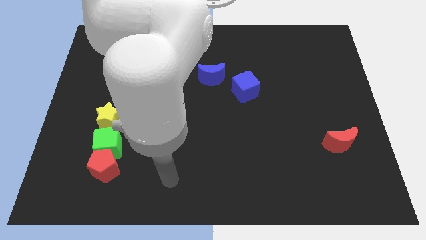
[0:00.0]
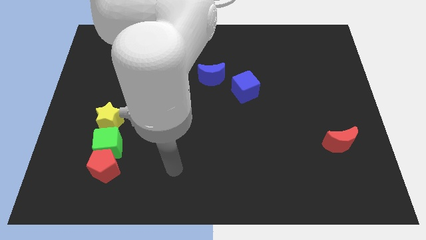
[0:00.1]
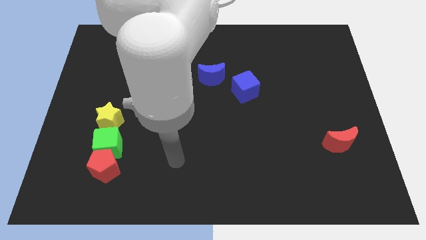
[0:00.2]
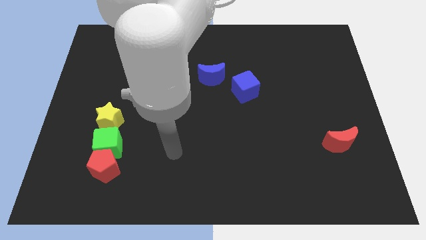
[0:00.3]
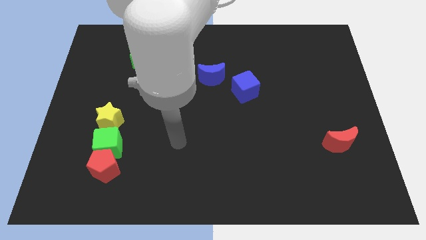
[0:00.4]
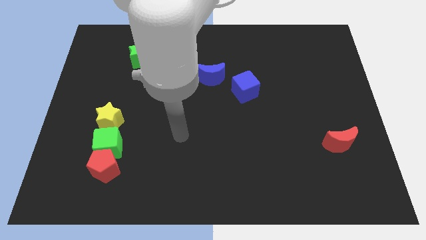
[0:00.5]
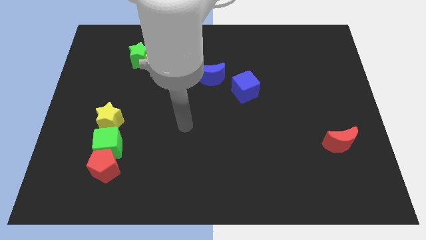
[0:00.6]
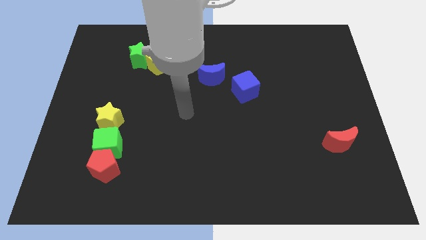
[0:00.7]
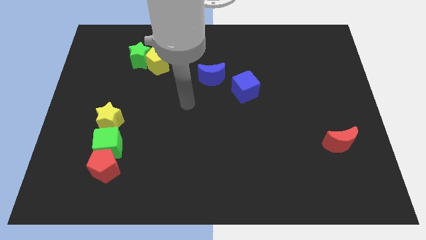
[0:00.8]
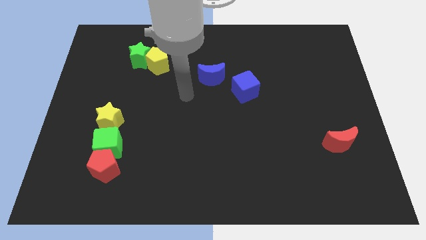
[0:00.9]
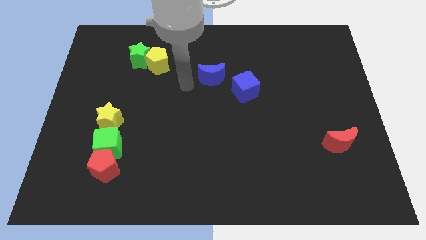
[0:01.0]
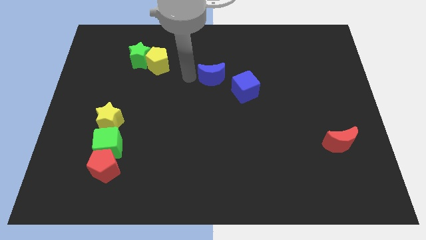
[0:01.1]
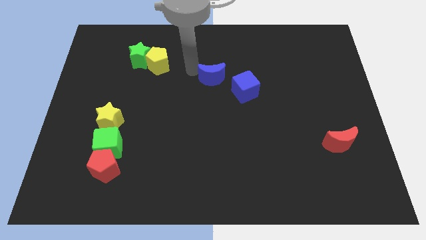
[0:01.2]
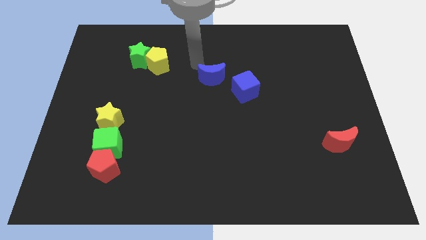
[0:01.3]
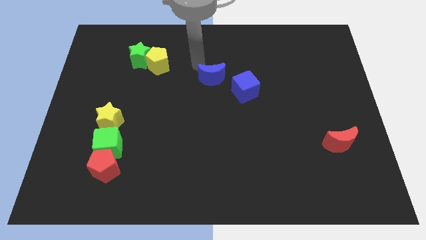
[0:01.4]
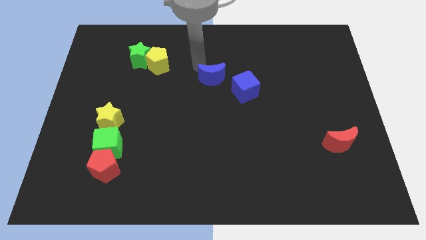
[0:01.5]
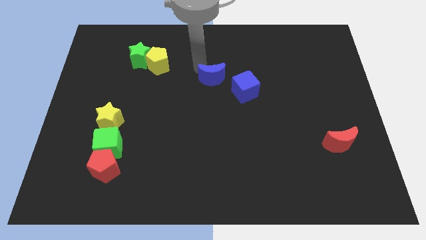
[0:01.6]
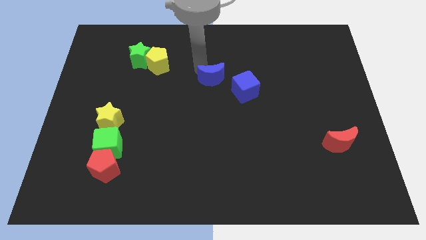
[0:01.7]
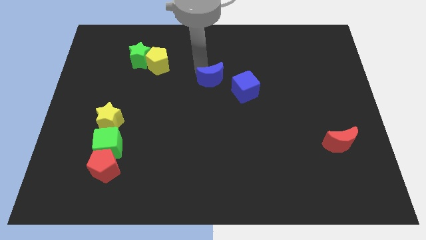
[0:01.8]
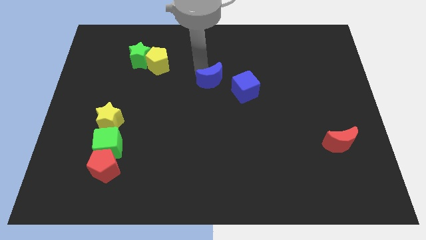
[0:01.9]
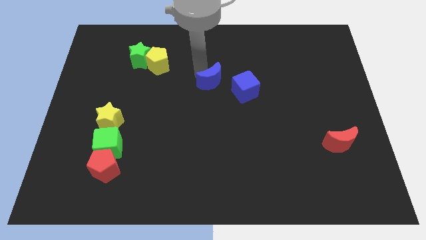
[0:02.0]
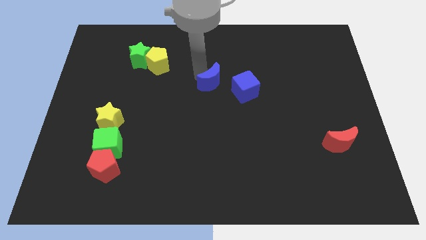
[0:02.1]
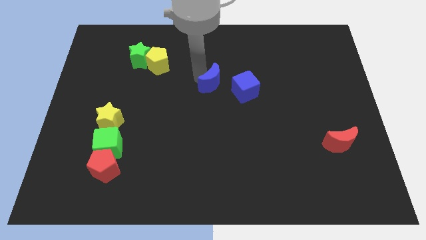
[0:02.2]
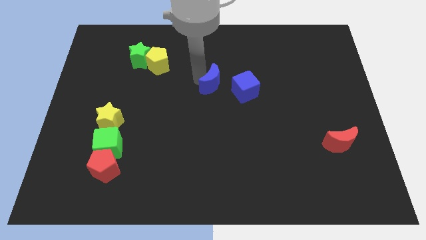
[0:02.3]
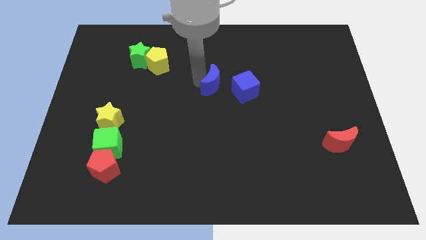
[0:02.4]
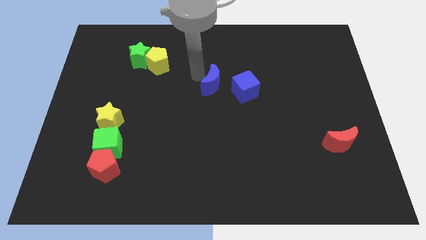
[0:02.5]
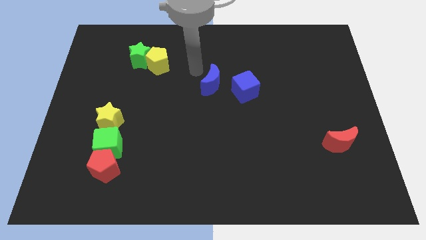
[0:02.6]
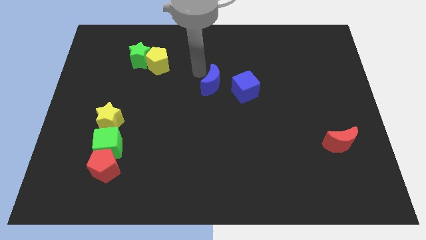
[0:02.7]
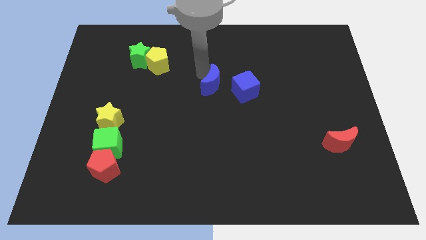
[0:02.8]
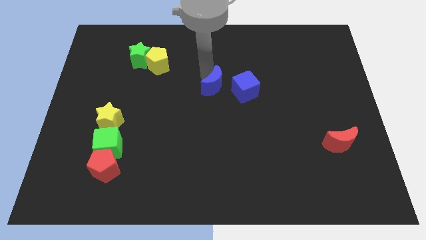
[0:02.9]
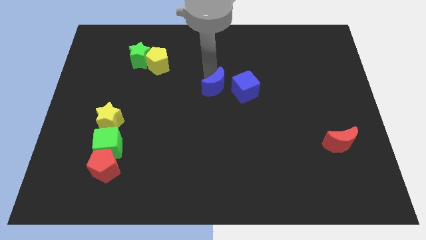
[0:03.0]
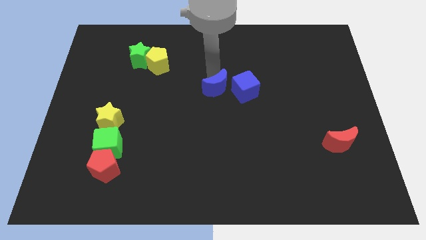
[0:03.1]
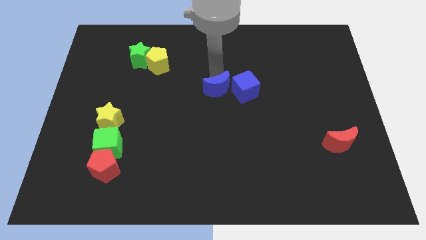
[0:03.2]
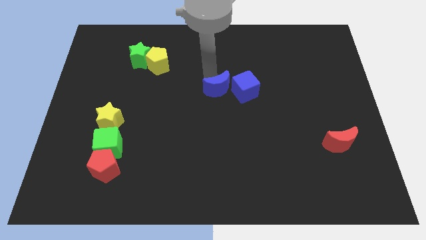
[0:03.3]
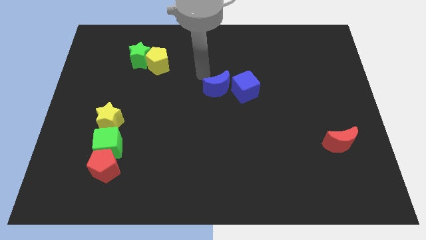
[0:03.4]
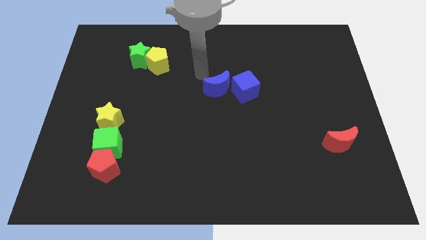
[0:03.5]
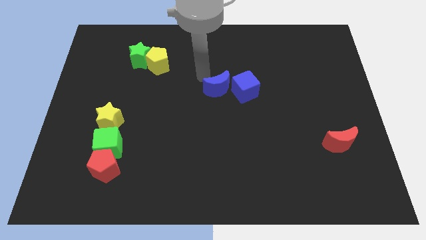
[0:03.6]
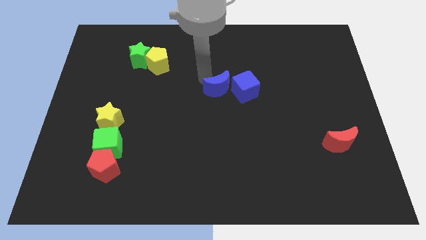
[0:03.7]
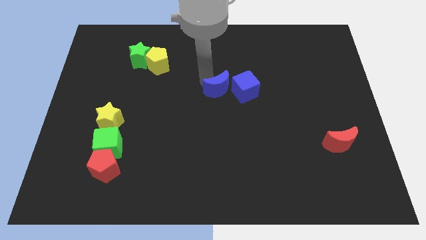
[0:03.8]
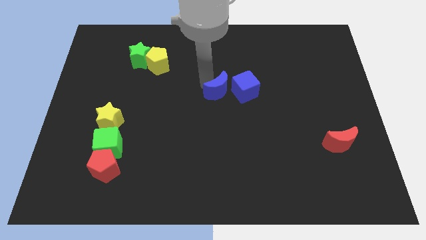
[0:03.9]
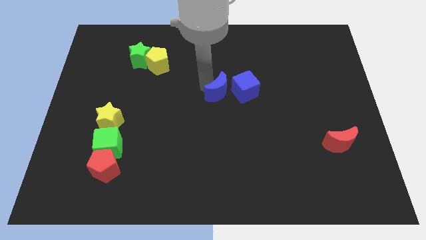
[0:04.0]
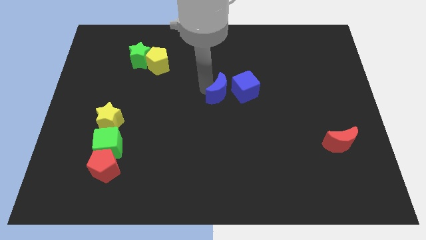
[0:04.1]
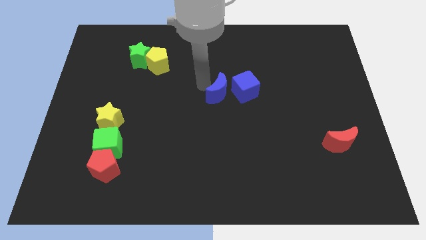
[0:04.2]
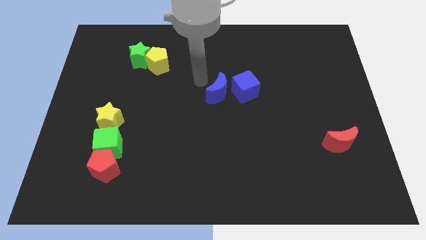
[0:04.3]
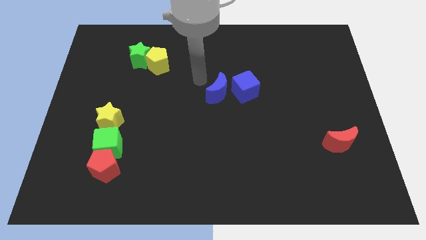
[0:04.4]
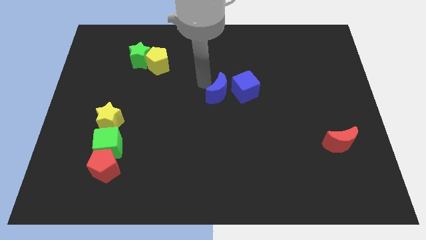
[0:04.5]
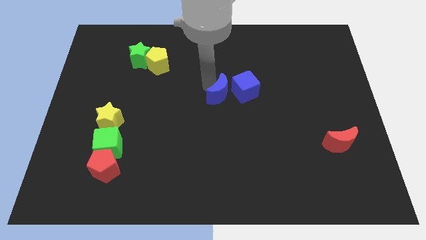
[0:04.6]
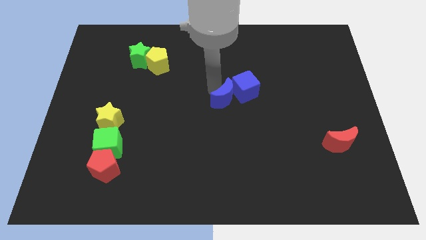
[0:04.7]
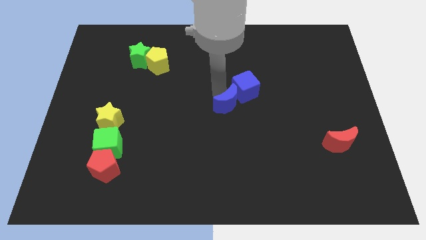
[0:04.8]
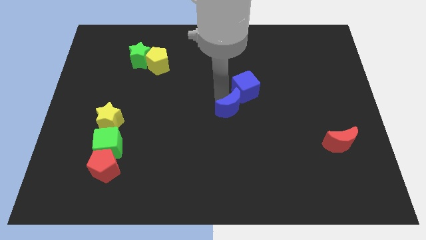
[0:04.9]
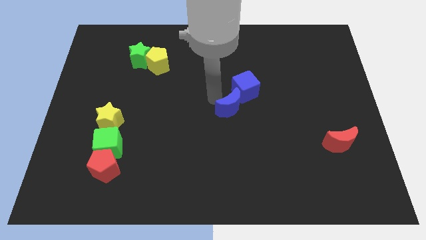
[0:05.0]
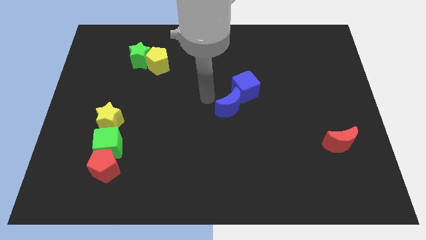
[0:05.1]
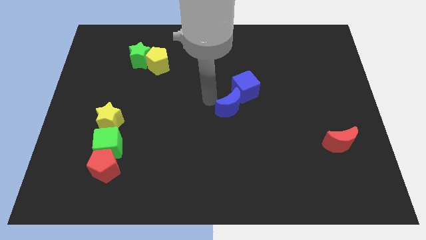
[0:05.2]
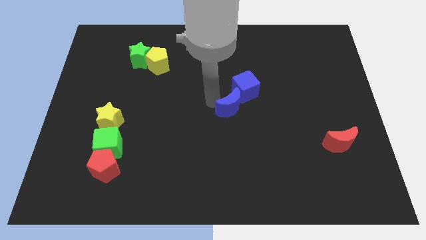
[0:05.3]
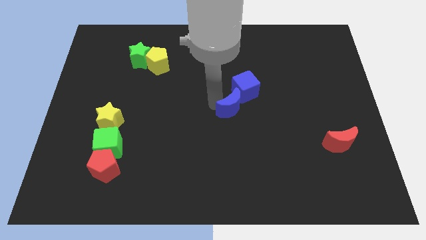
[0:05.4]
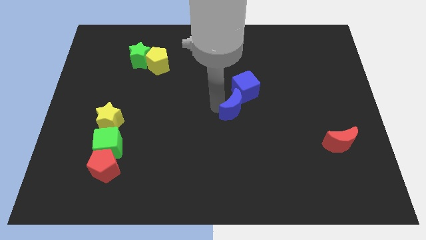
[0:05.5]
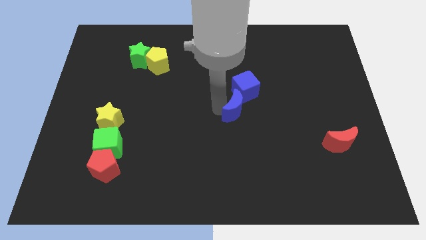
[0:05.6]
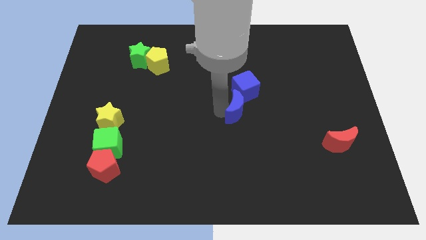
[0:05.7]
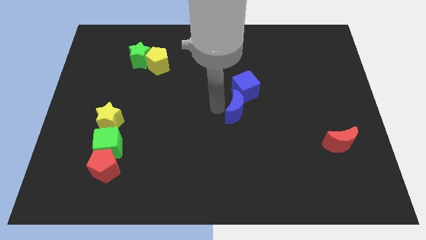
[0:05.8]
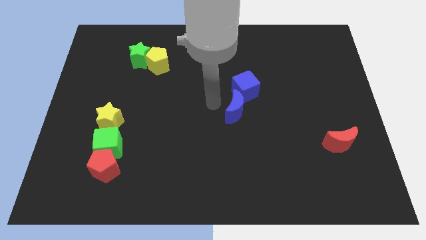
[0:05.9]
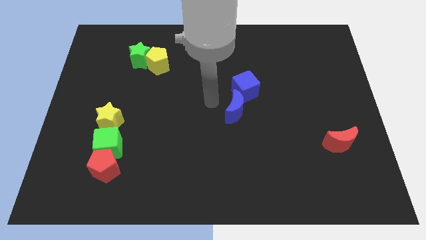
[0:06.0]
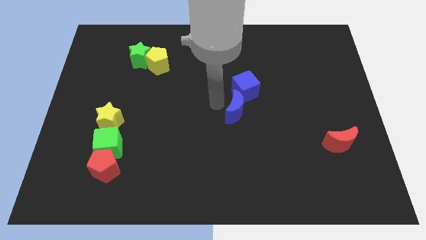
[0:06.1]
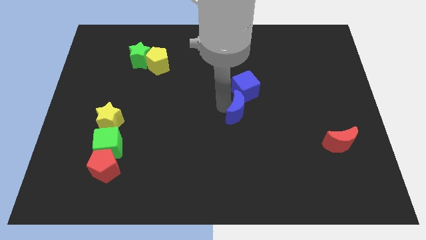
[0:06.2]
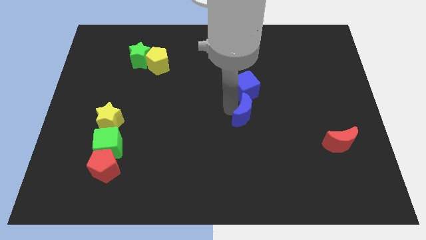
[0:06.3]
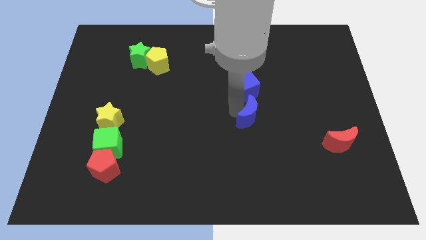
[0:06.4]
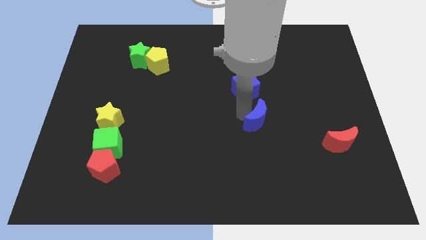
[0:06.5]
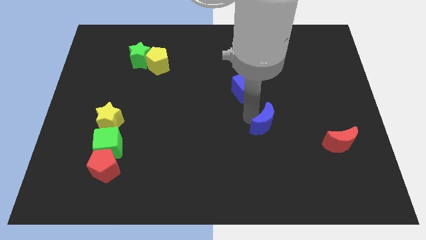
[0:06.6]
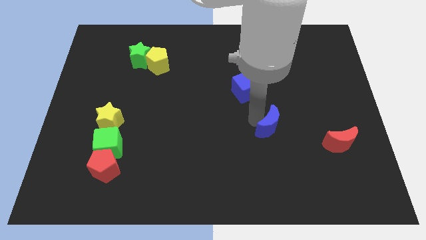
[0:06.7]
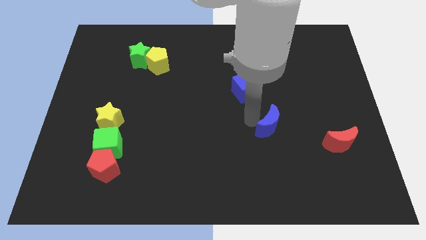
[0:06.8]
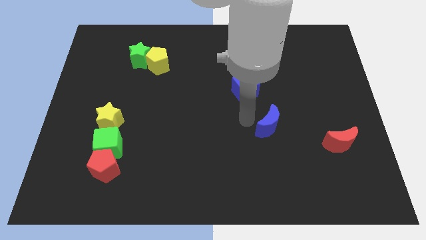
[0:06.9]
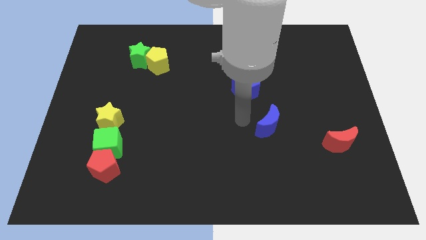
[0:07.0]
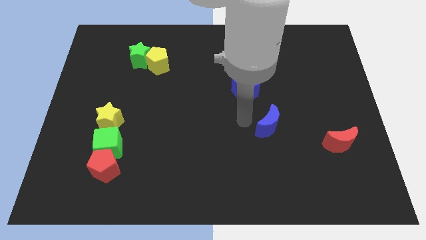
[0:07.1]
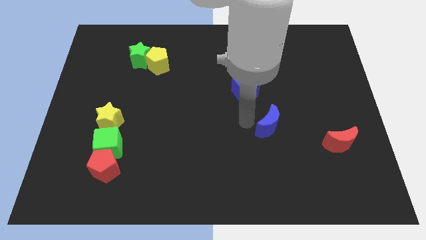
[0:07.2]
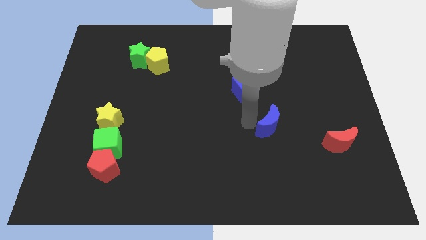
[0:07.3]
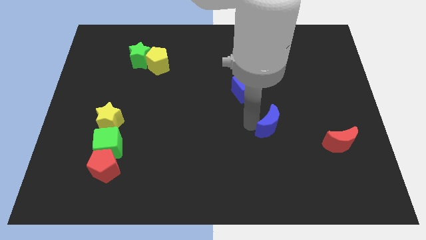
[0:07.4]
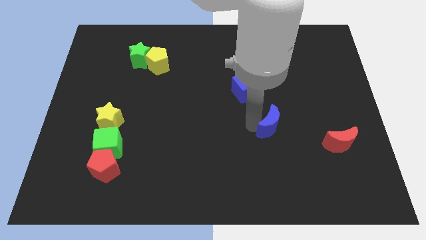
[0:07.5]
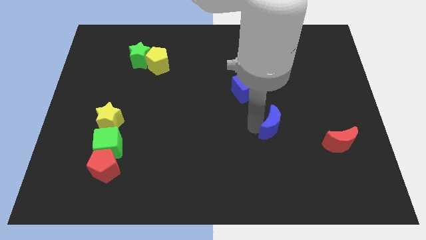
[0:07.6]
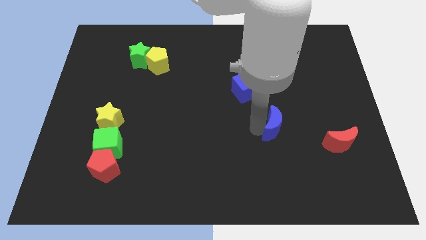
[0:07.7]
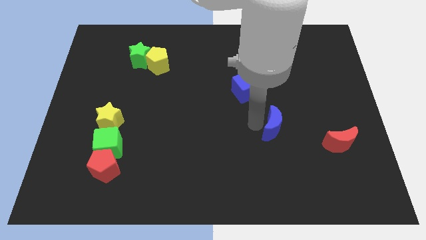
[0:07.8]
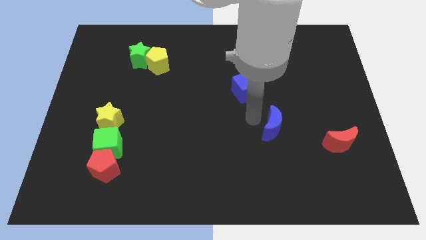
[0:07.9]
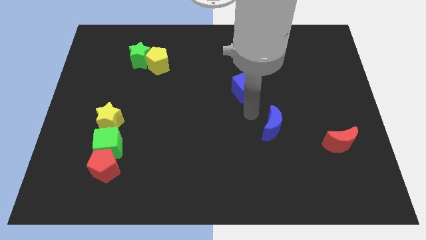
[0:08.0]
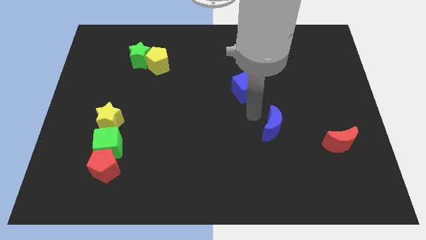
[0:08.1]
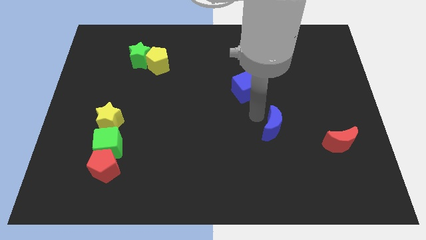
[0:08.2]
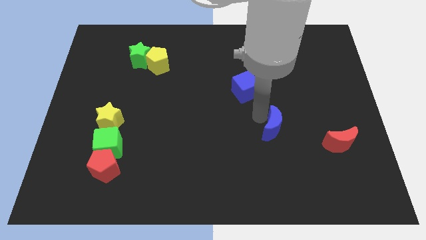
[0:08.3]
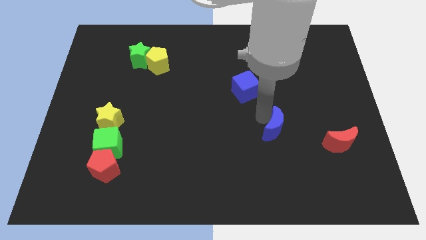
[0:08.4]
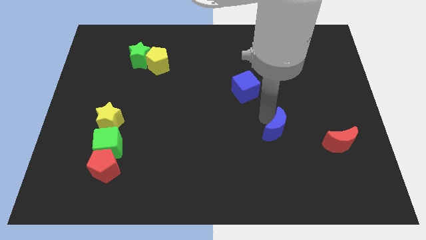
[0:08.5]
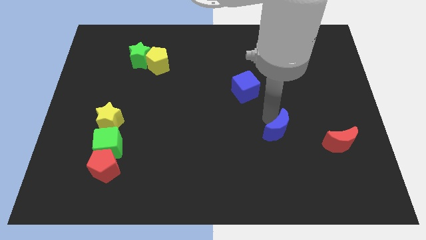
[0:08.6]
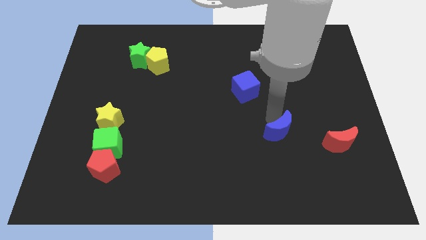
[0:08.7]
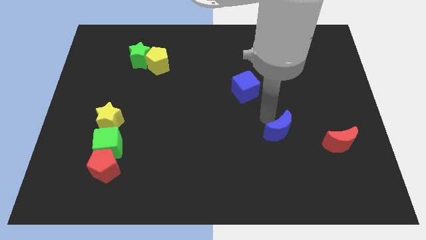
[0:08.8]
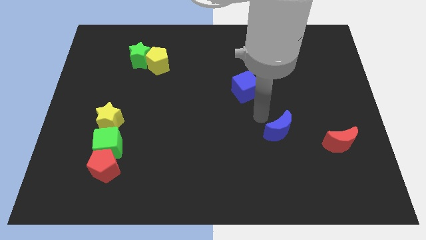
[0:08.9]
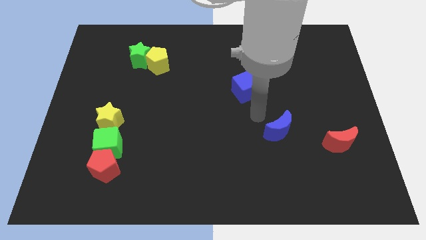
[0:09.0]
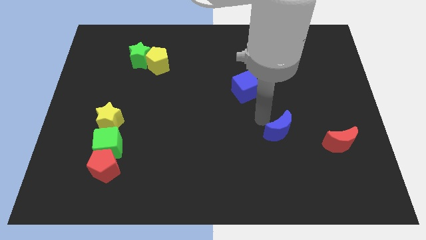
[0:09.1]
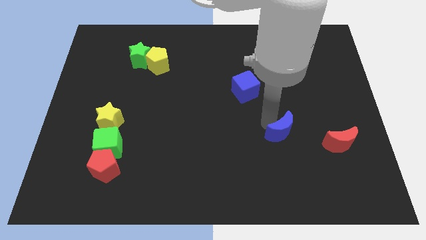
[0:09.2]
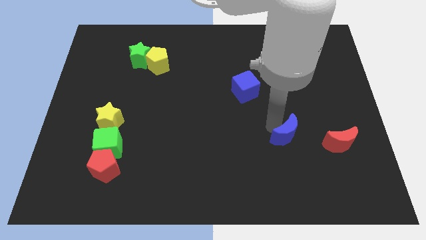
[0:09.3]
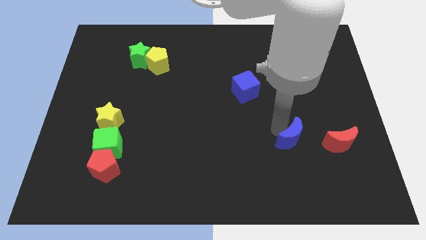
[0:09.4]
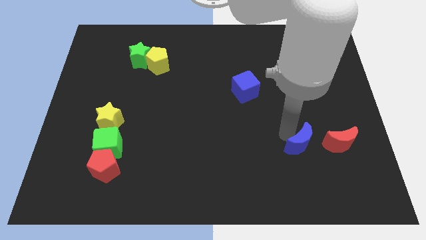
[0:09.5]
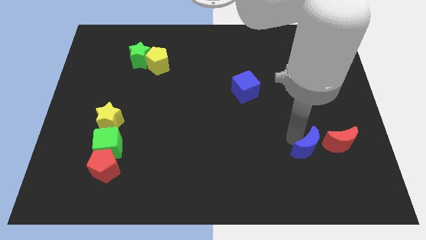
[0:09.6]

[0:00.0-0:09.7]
put the blue moon diagonally down and to the left of the red moon
